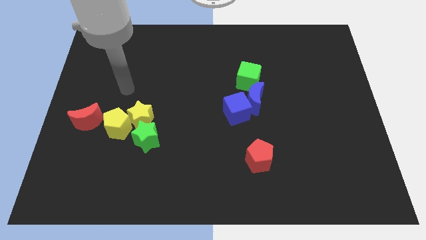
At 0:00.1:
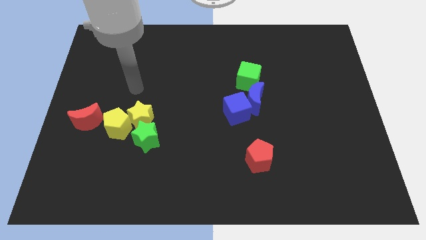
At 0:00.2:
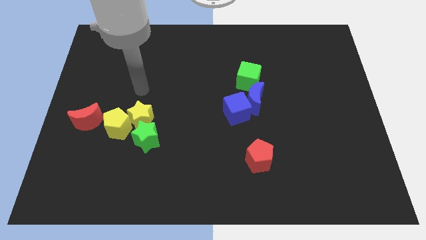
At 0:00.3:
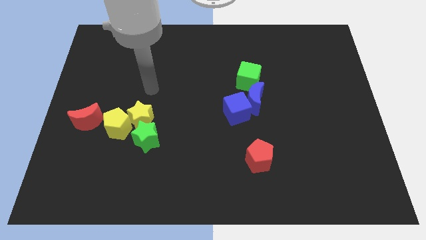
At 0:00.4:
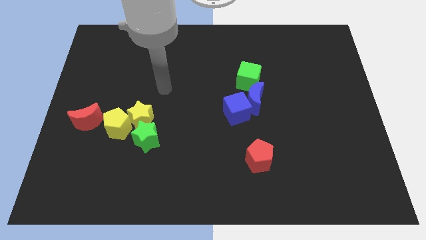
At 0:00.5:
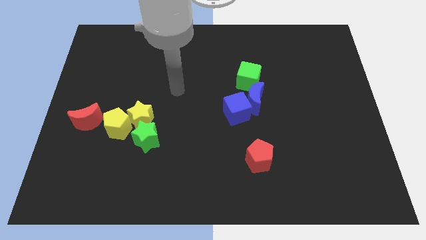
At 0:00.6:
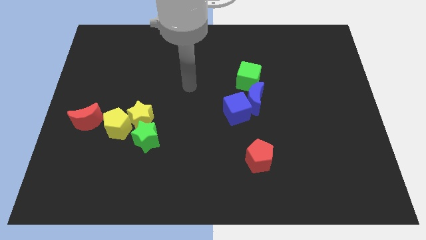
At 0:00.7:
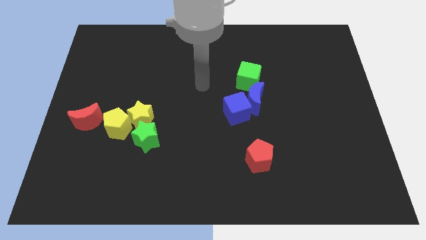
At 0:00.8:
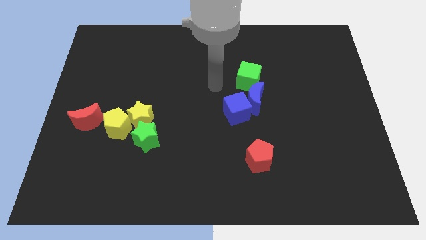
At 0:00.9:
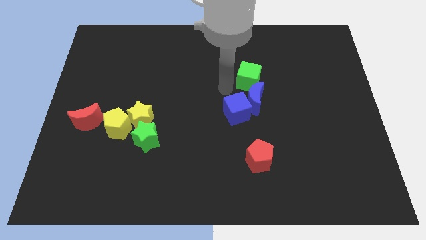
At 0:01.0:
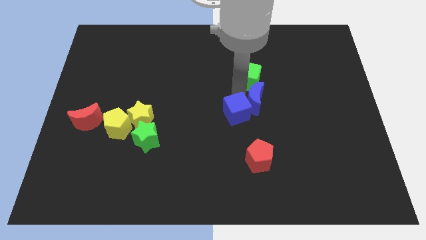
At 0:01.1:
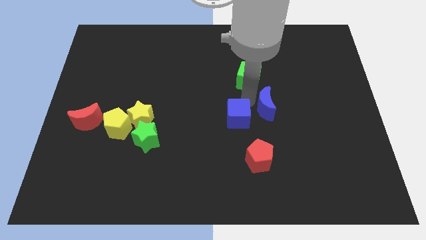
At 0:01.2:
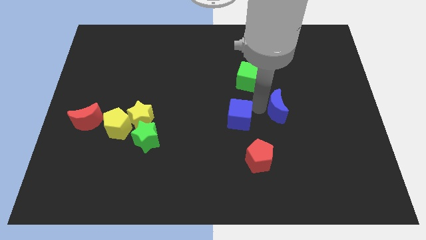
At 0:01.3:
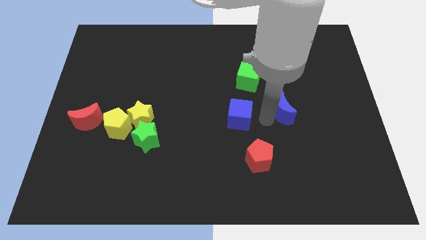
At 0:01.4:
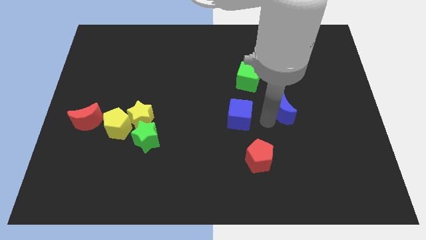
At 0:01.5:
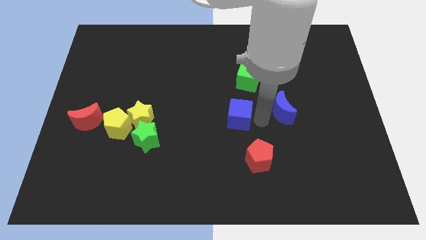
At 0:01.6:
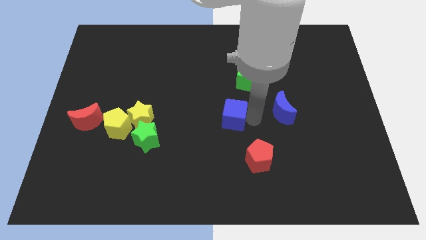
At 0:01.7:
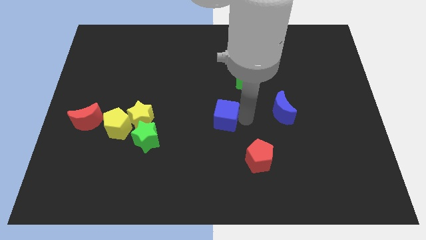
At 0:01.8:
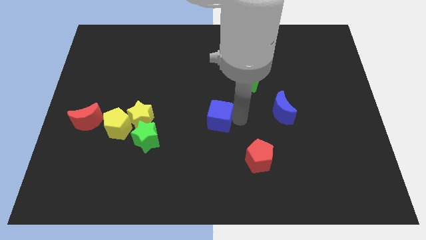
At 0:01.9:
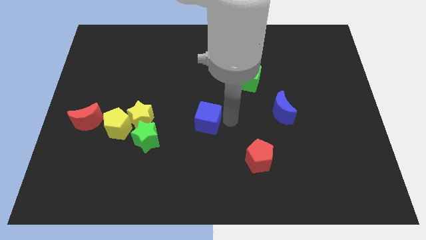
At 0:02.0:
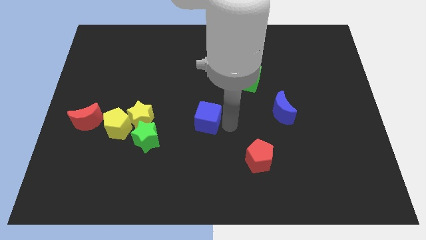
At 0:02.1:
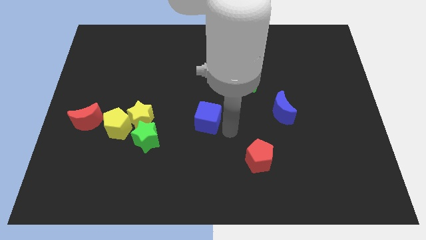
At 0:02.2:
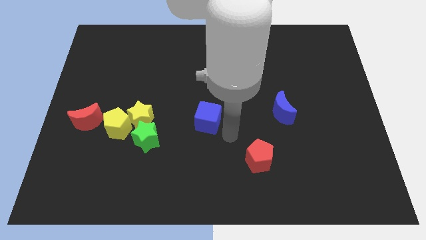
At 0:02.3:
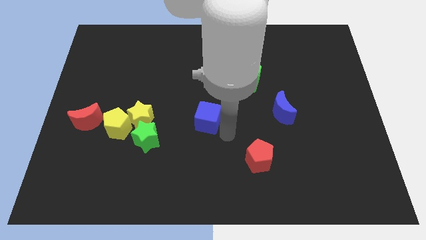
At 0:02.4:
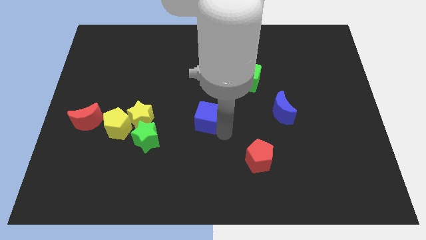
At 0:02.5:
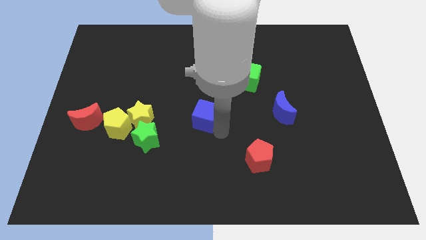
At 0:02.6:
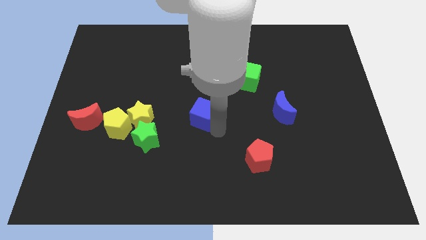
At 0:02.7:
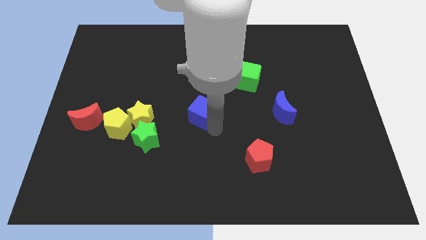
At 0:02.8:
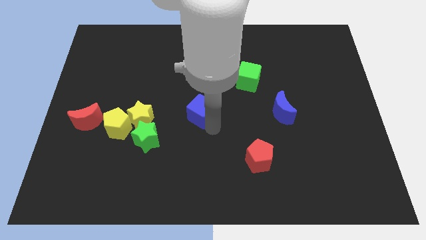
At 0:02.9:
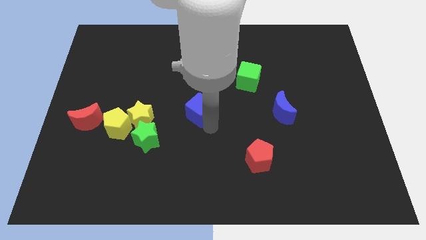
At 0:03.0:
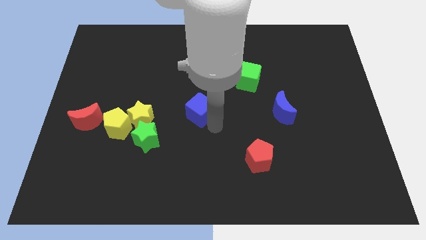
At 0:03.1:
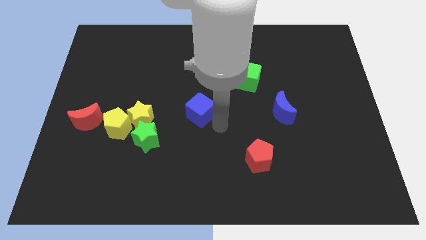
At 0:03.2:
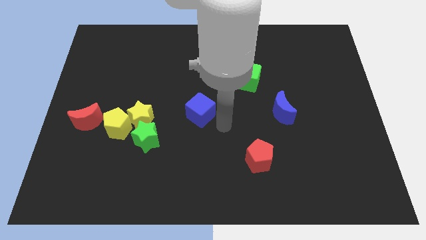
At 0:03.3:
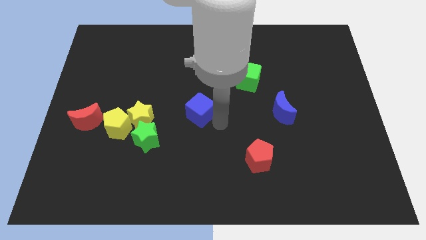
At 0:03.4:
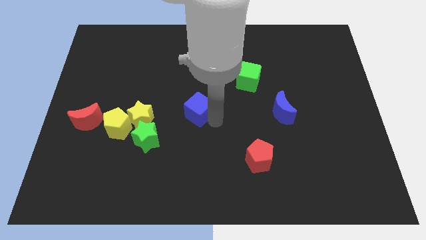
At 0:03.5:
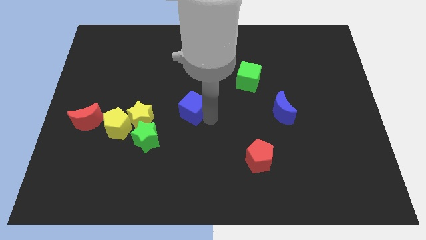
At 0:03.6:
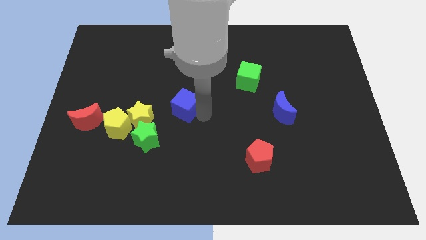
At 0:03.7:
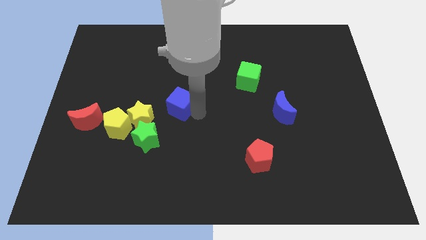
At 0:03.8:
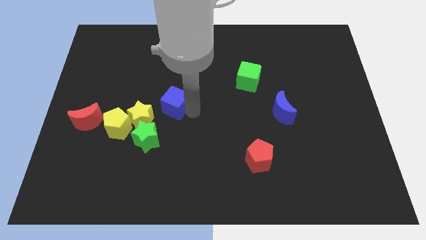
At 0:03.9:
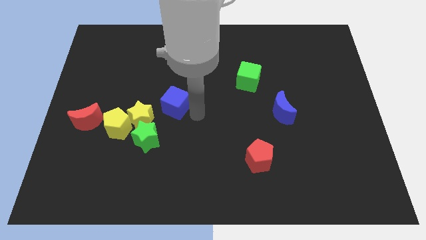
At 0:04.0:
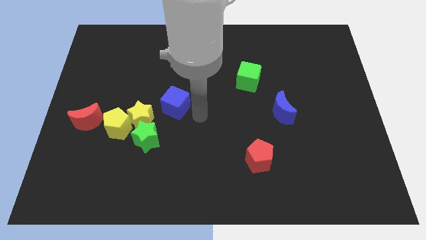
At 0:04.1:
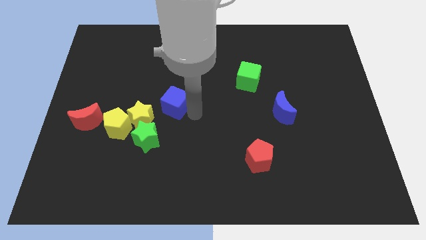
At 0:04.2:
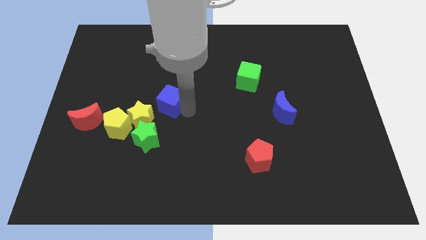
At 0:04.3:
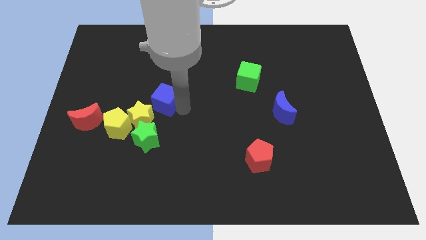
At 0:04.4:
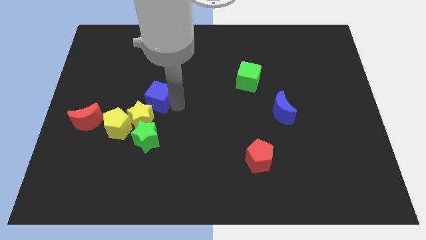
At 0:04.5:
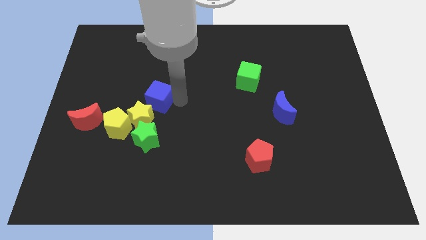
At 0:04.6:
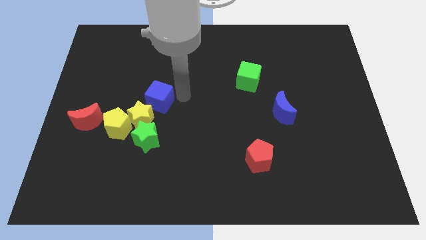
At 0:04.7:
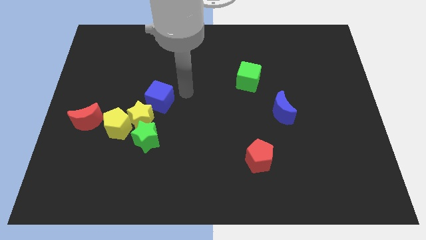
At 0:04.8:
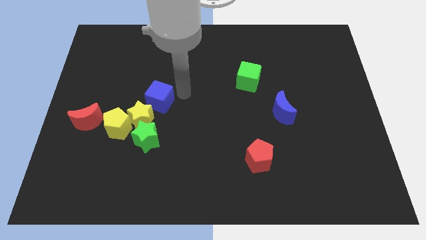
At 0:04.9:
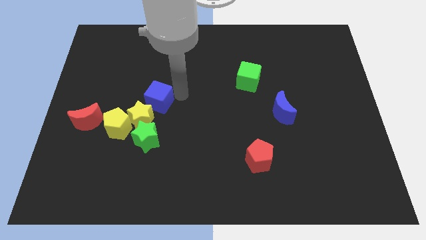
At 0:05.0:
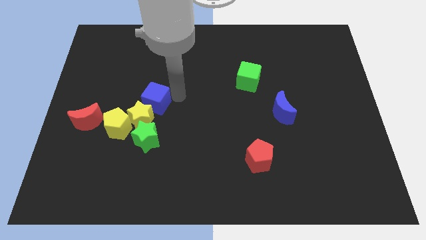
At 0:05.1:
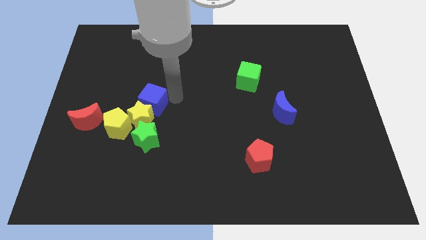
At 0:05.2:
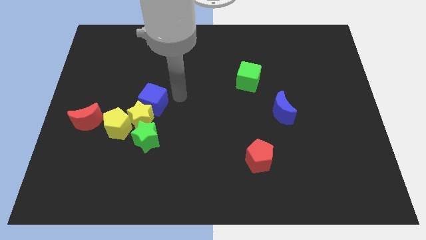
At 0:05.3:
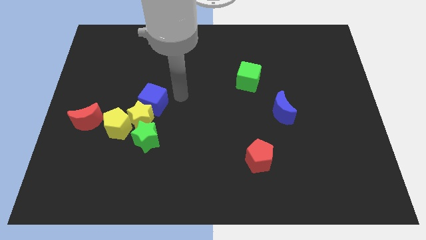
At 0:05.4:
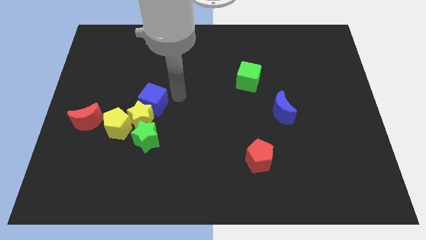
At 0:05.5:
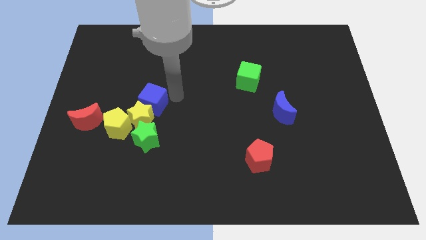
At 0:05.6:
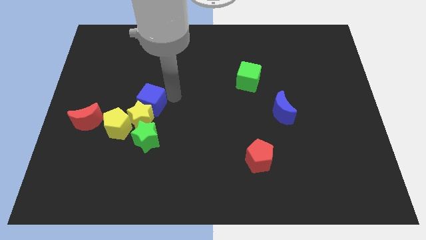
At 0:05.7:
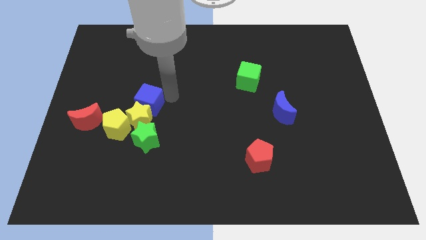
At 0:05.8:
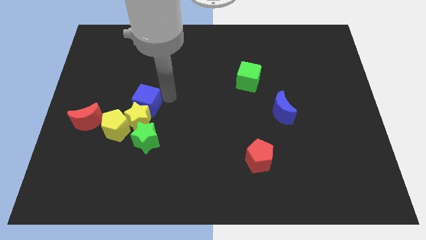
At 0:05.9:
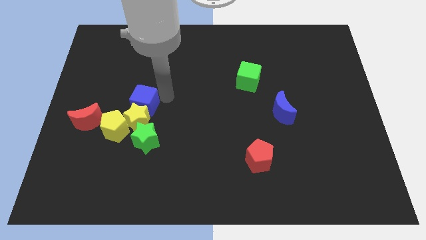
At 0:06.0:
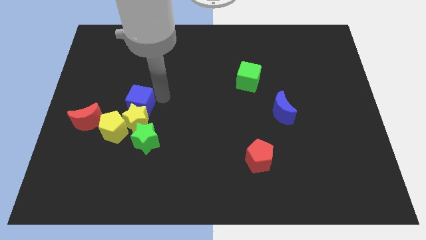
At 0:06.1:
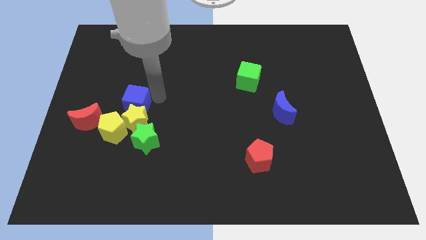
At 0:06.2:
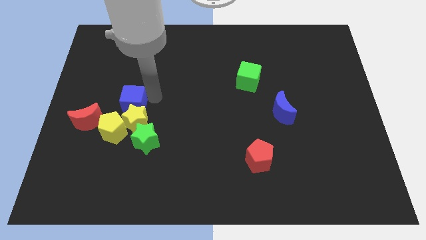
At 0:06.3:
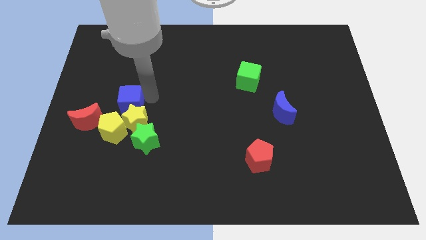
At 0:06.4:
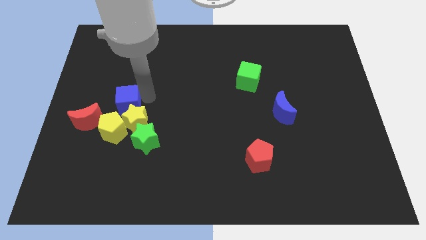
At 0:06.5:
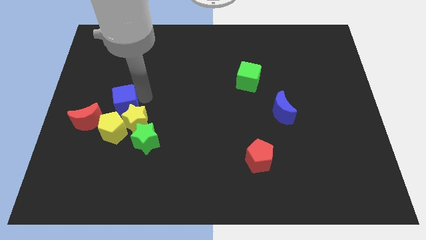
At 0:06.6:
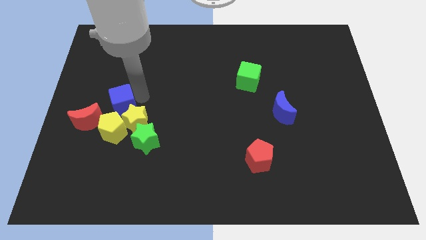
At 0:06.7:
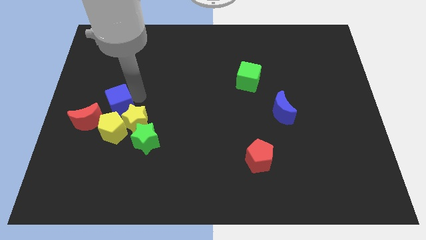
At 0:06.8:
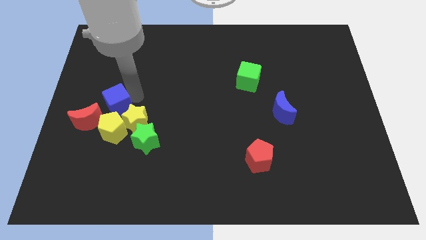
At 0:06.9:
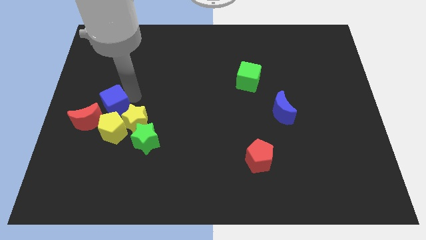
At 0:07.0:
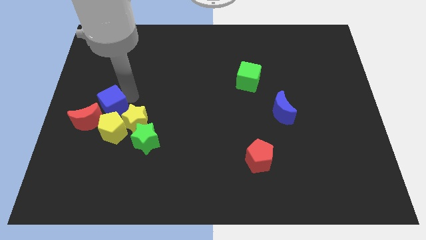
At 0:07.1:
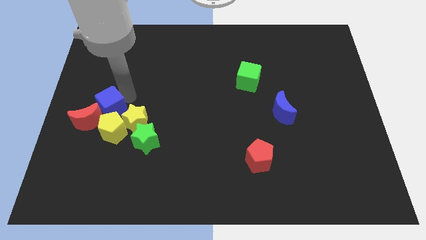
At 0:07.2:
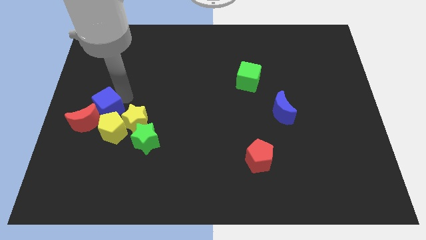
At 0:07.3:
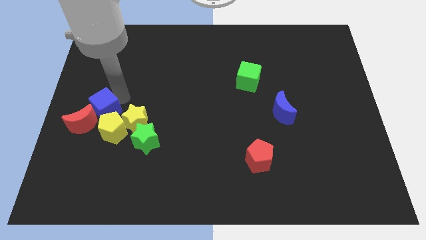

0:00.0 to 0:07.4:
push the blue cube to the red moon
